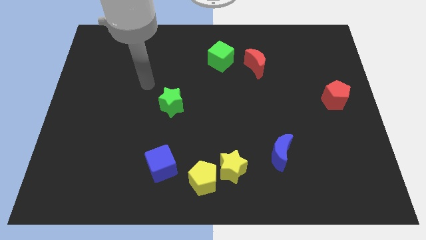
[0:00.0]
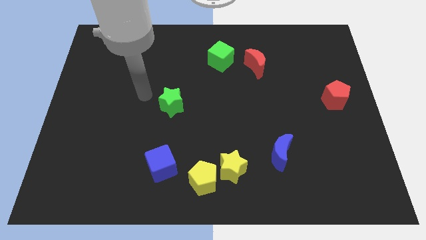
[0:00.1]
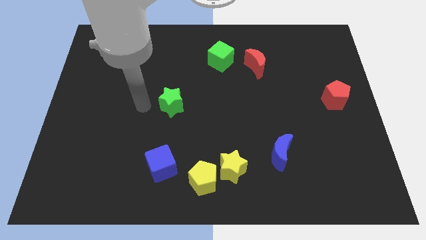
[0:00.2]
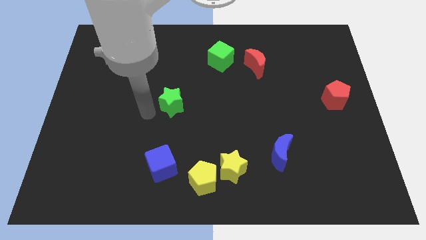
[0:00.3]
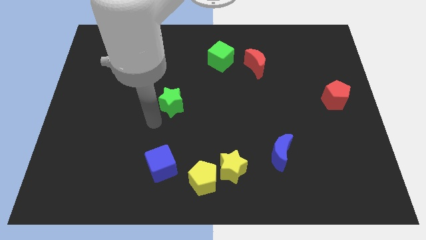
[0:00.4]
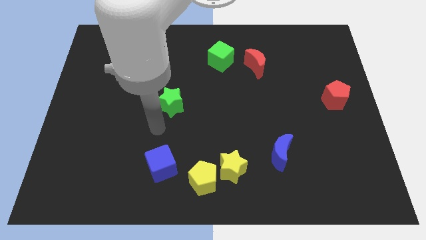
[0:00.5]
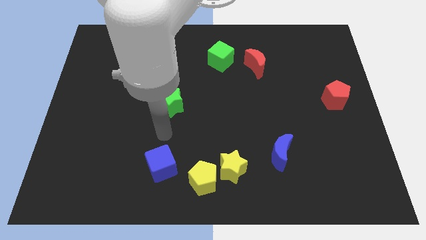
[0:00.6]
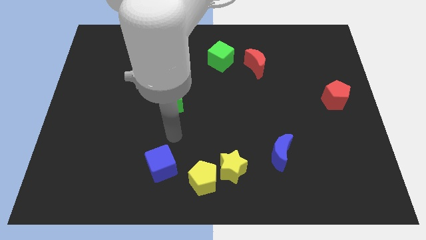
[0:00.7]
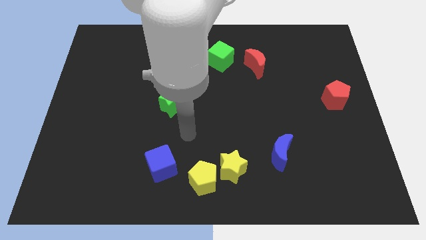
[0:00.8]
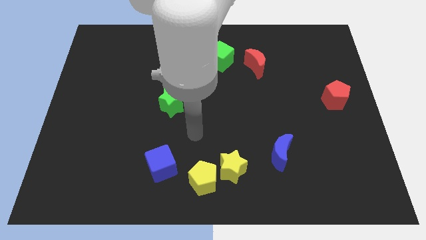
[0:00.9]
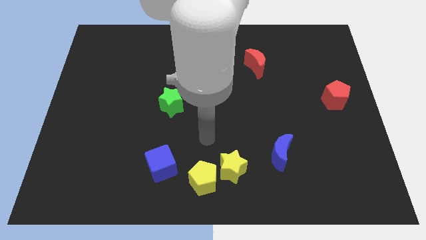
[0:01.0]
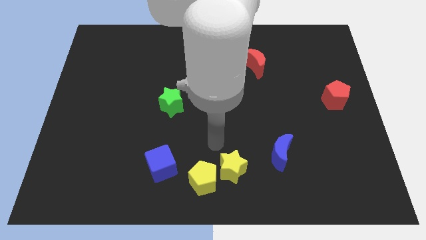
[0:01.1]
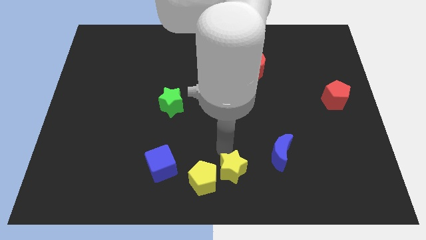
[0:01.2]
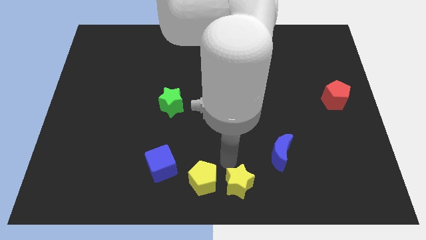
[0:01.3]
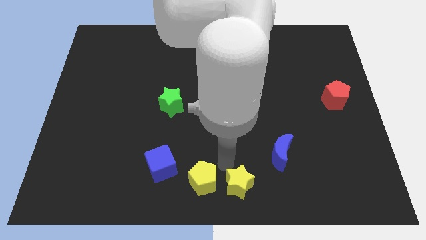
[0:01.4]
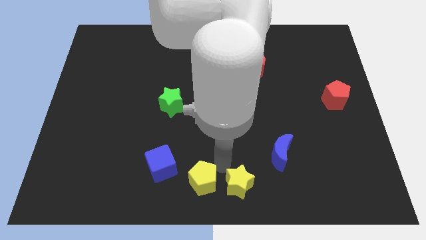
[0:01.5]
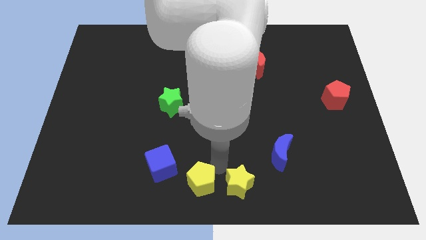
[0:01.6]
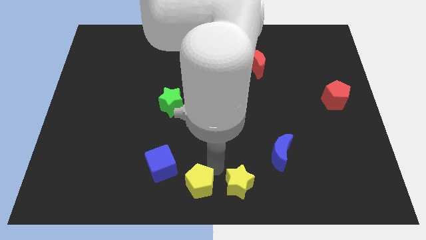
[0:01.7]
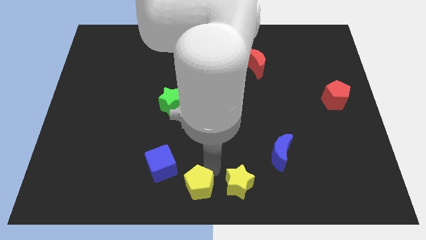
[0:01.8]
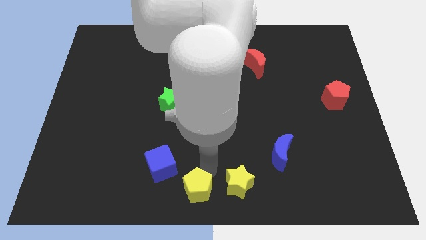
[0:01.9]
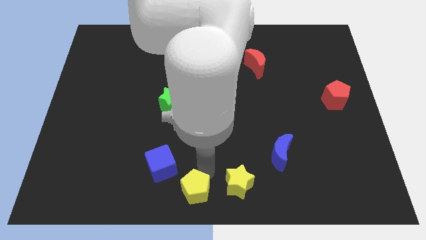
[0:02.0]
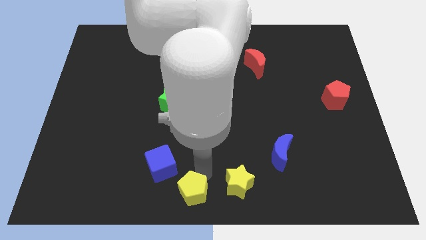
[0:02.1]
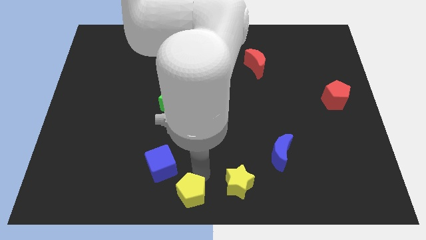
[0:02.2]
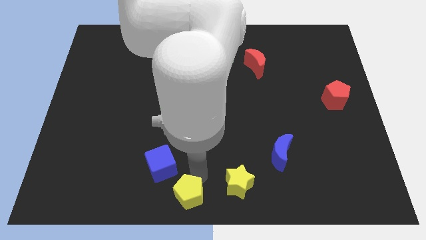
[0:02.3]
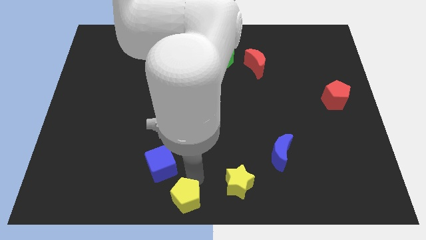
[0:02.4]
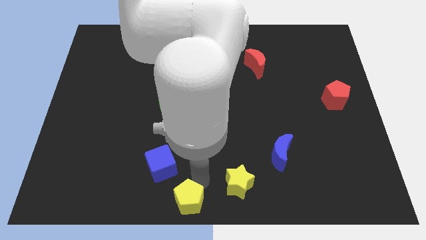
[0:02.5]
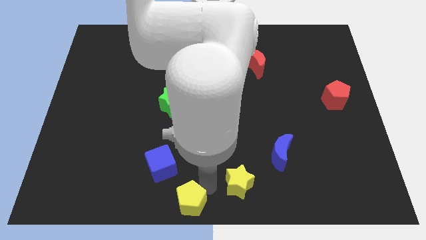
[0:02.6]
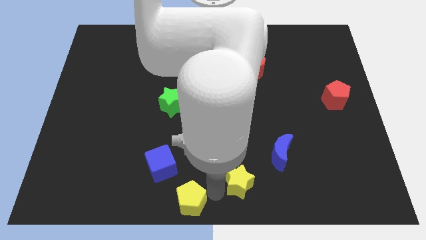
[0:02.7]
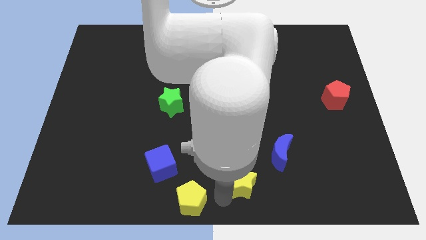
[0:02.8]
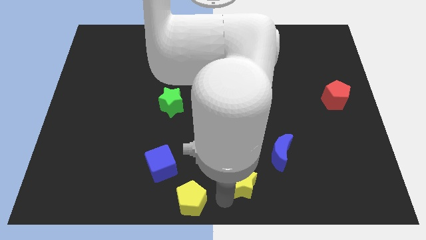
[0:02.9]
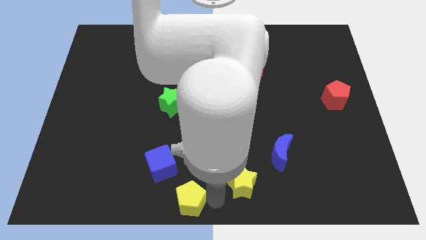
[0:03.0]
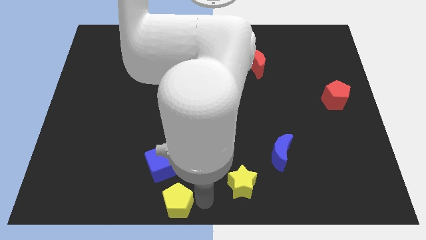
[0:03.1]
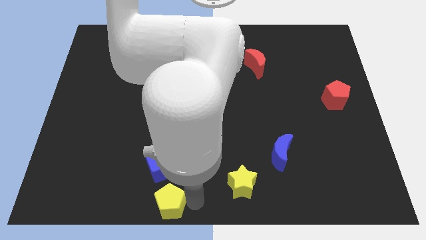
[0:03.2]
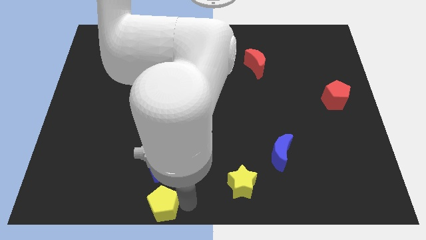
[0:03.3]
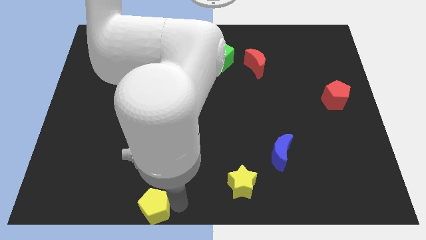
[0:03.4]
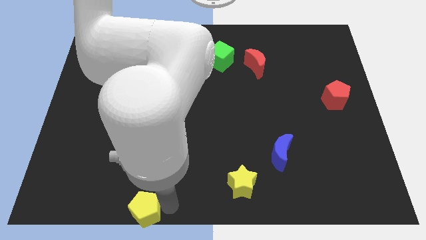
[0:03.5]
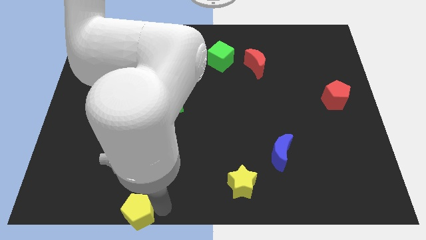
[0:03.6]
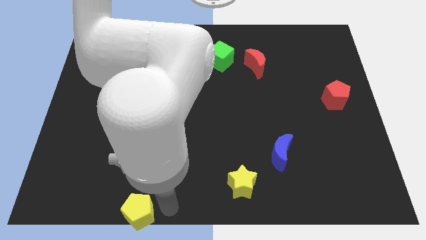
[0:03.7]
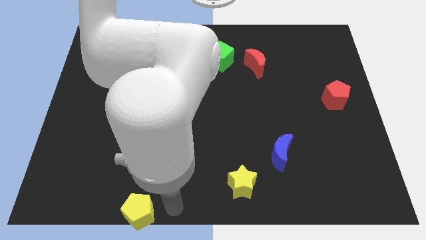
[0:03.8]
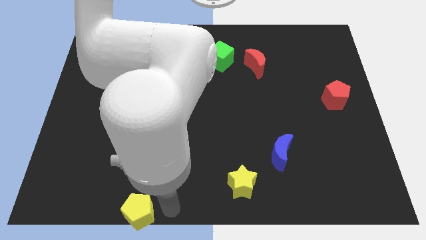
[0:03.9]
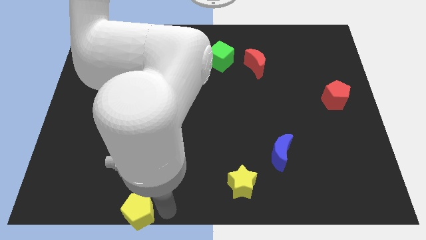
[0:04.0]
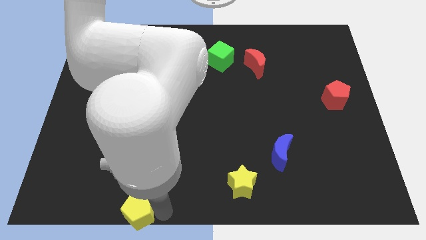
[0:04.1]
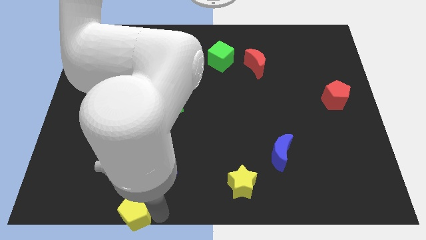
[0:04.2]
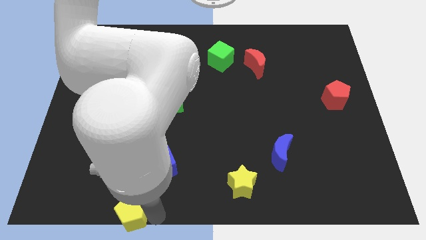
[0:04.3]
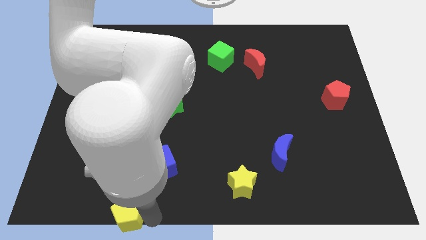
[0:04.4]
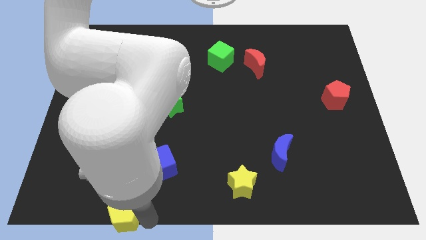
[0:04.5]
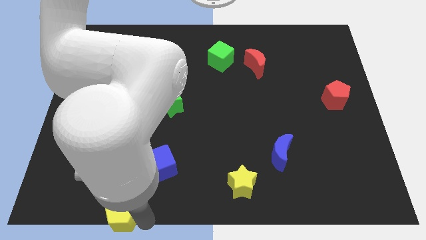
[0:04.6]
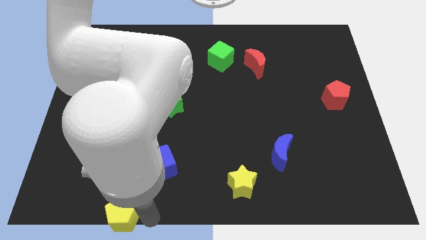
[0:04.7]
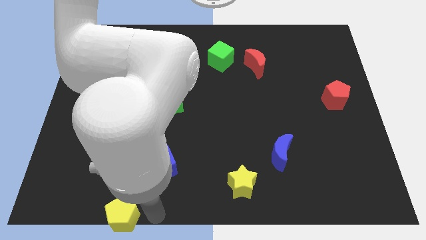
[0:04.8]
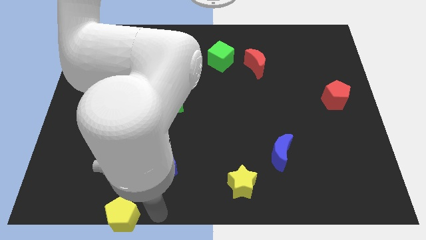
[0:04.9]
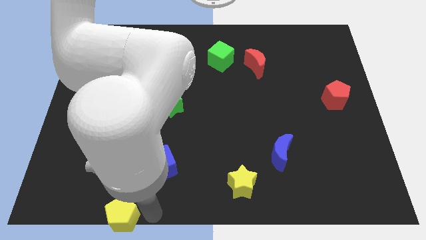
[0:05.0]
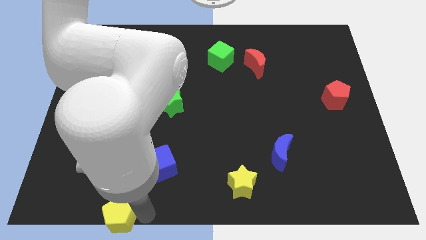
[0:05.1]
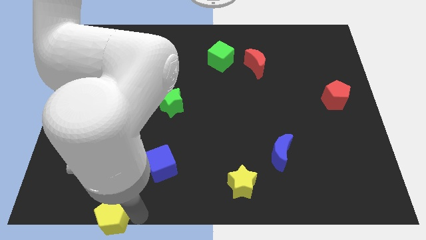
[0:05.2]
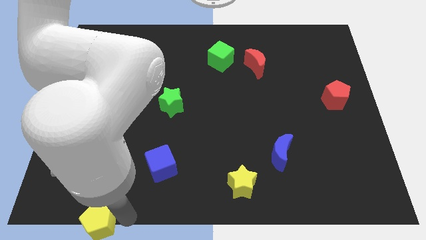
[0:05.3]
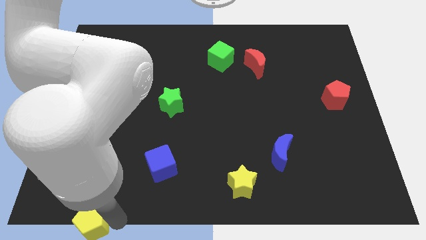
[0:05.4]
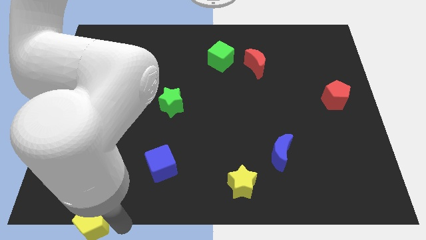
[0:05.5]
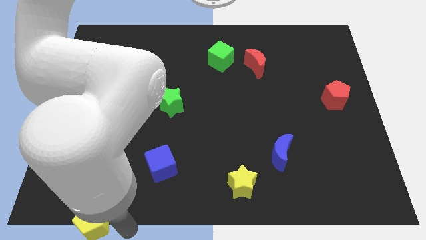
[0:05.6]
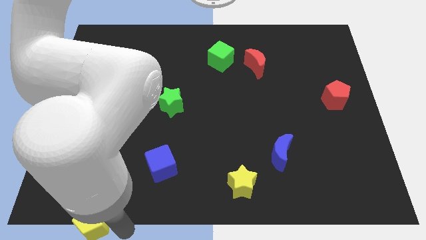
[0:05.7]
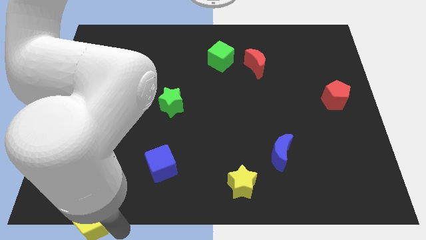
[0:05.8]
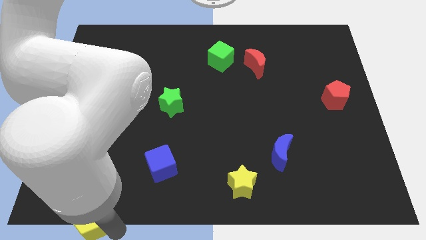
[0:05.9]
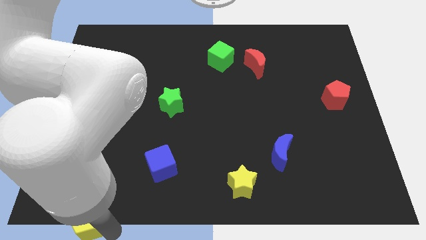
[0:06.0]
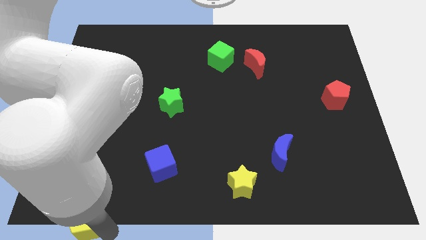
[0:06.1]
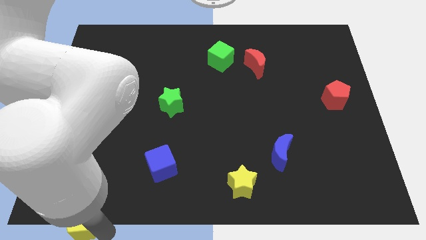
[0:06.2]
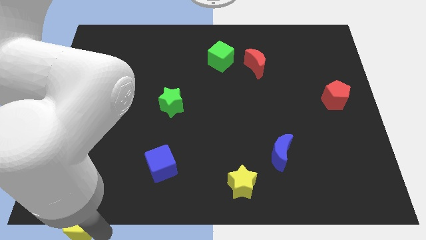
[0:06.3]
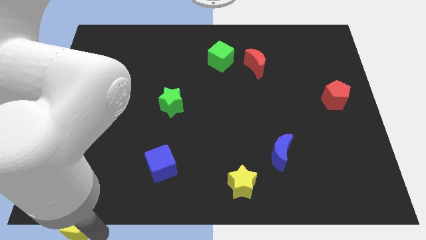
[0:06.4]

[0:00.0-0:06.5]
slide the yellow pentagon to the bottom left
